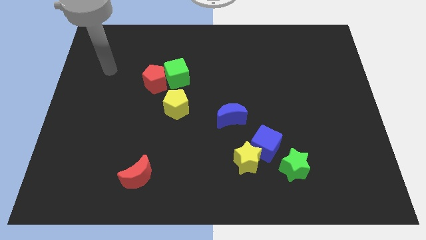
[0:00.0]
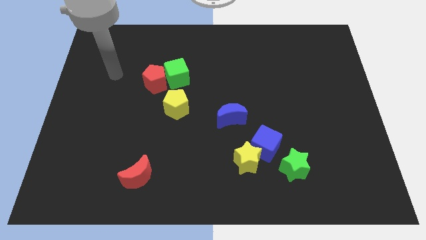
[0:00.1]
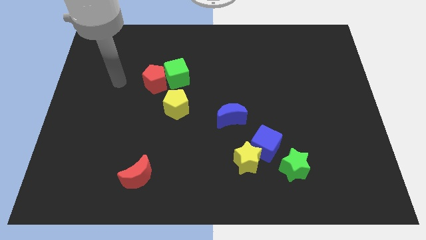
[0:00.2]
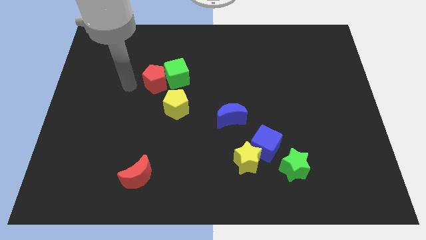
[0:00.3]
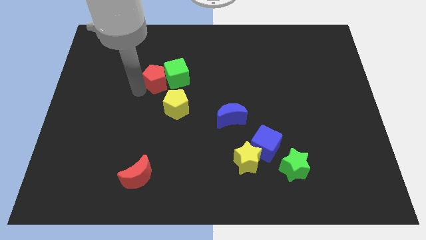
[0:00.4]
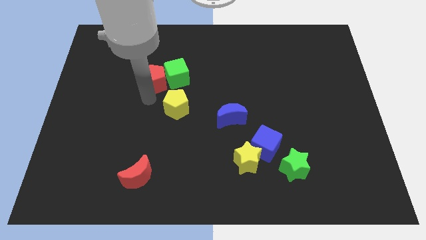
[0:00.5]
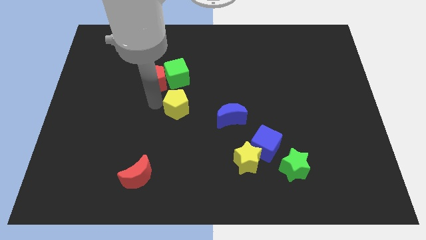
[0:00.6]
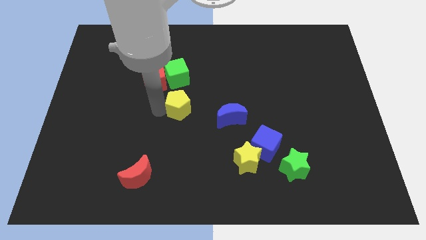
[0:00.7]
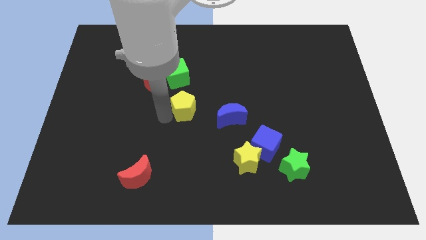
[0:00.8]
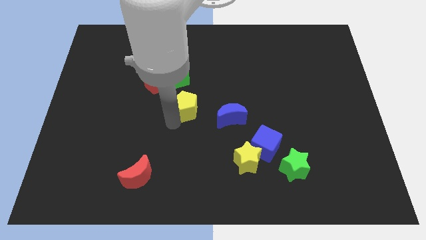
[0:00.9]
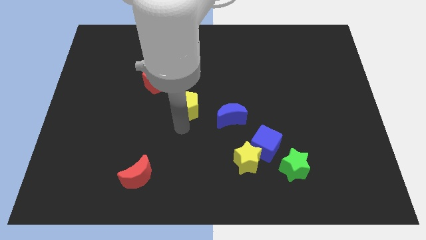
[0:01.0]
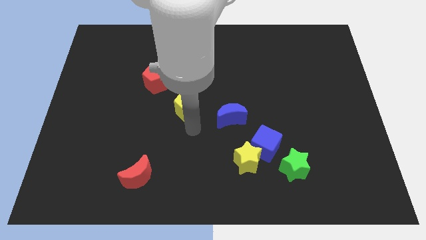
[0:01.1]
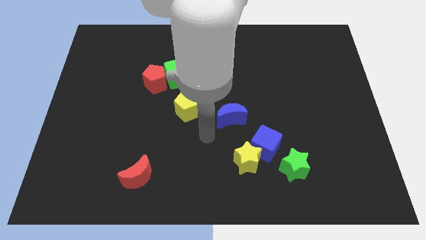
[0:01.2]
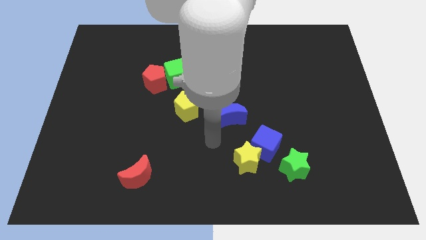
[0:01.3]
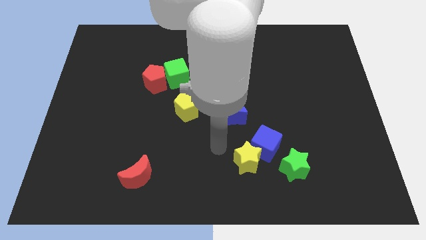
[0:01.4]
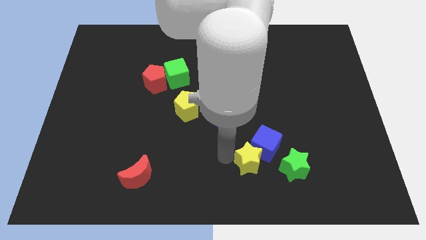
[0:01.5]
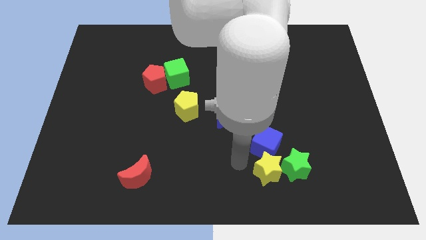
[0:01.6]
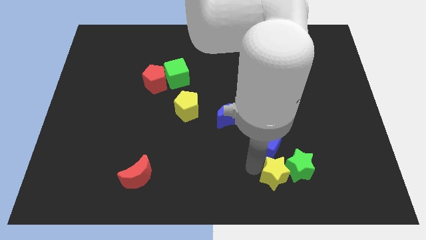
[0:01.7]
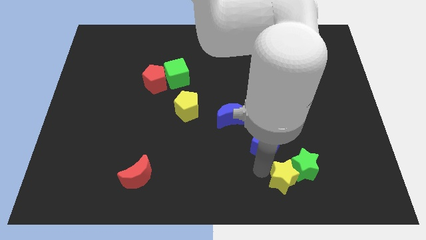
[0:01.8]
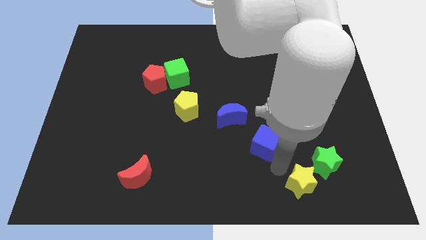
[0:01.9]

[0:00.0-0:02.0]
move the blue cube away from the yellow star and green star

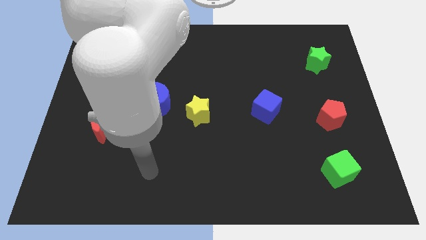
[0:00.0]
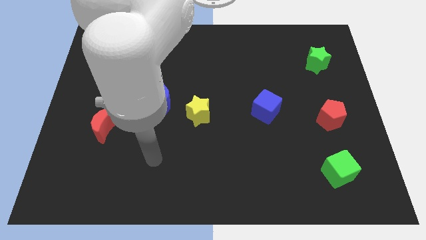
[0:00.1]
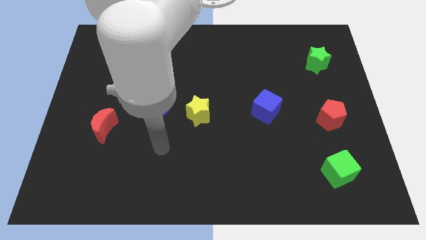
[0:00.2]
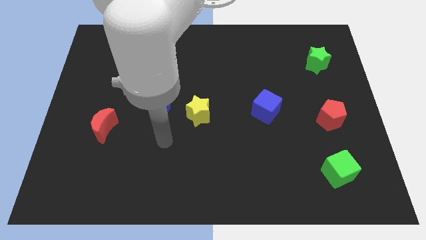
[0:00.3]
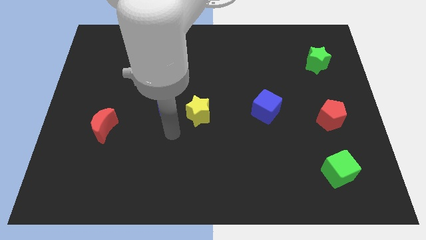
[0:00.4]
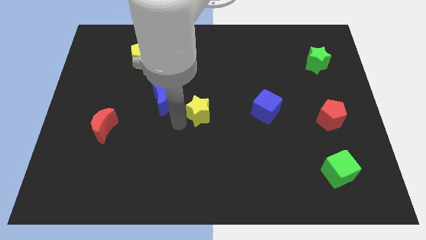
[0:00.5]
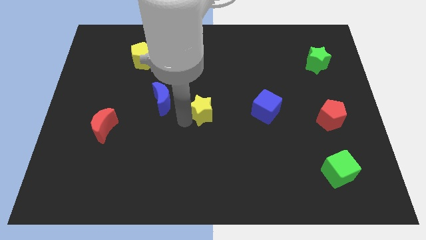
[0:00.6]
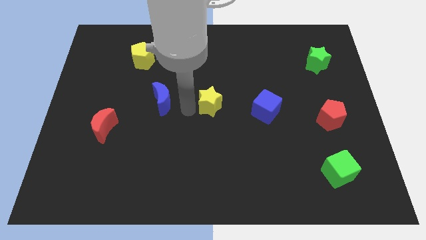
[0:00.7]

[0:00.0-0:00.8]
separate the blue moon from the yellow star

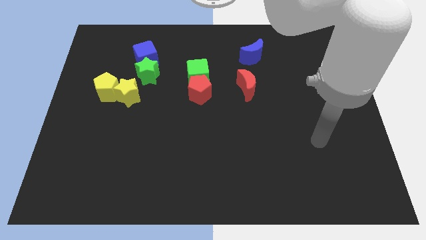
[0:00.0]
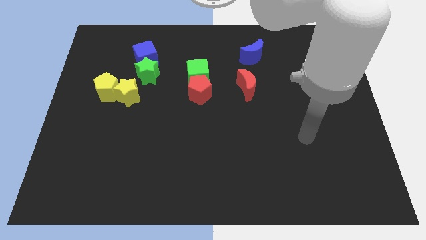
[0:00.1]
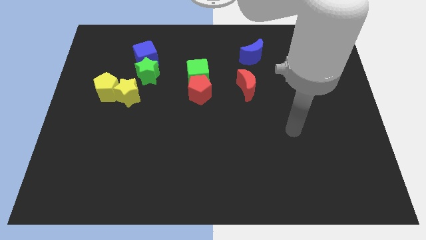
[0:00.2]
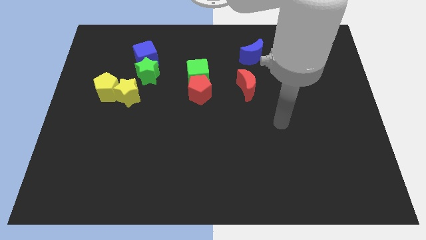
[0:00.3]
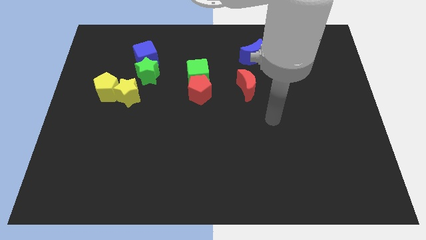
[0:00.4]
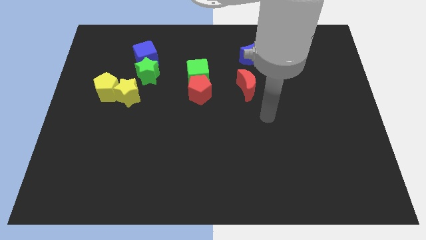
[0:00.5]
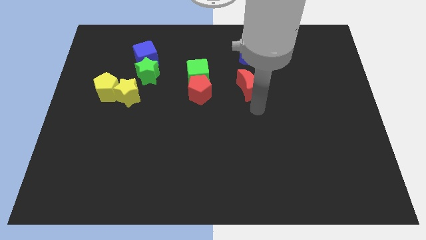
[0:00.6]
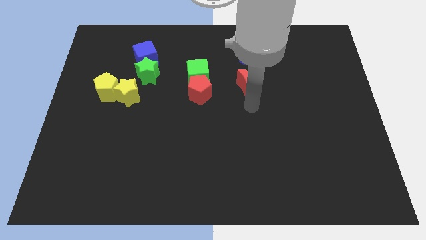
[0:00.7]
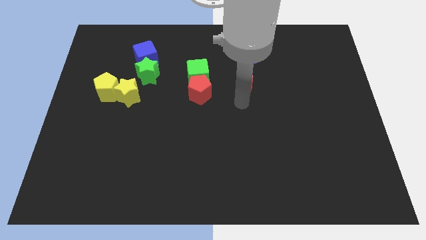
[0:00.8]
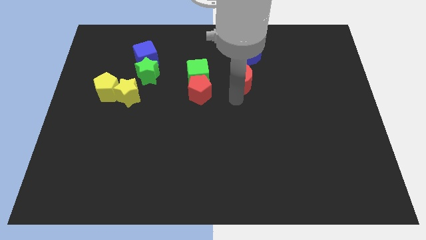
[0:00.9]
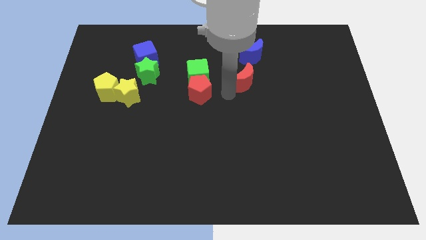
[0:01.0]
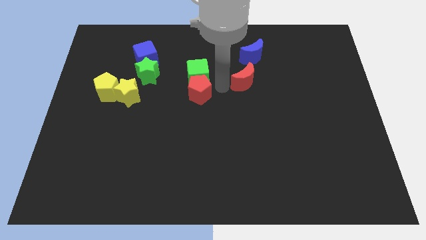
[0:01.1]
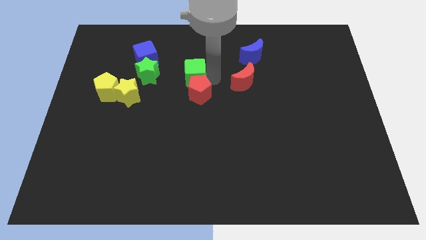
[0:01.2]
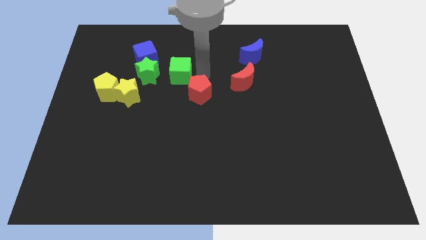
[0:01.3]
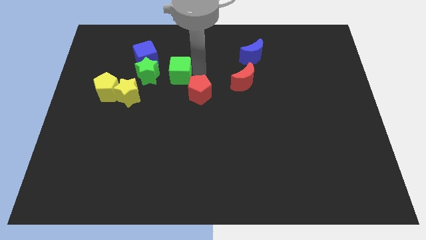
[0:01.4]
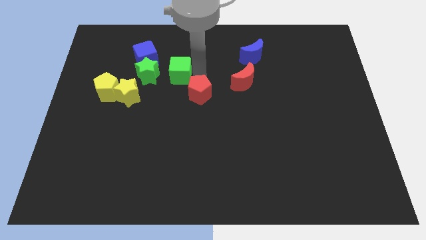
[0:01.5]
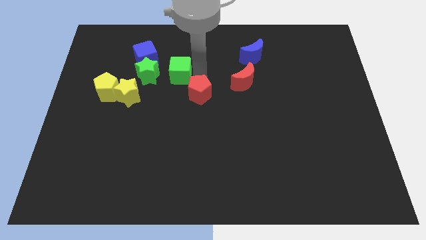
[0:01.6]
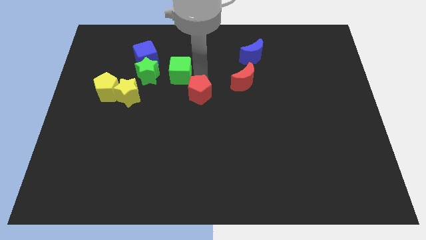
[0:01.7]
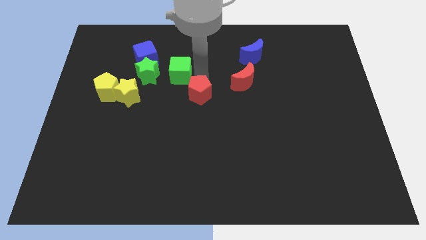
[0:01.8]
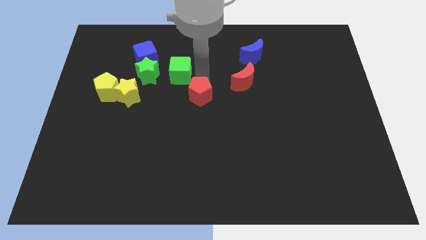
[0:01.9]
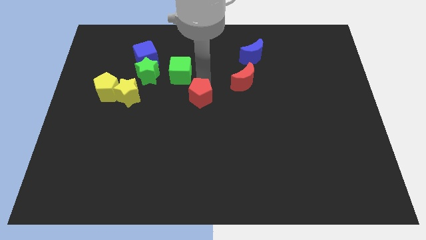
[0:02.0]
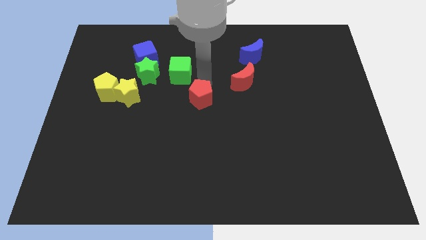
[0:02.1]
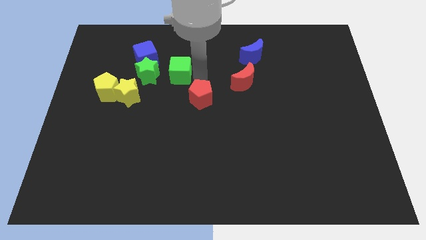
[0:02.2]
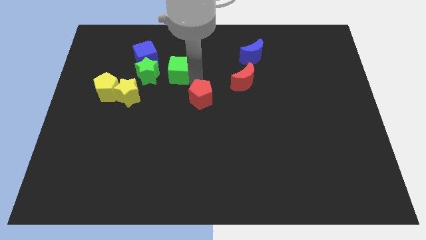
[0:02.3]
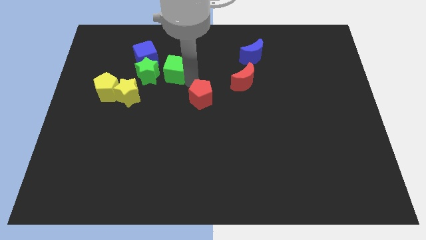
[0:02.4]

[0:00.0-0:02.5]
move the red pentagon away from the green cube

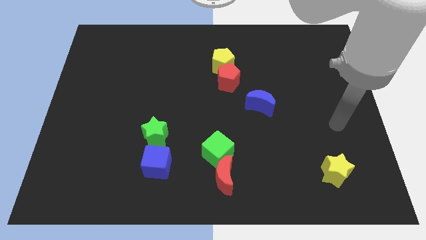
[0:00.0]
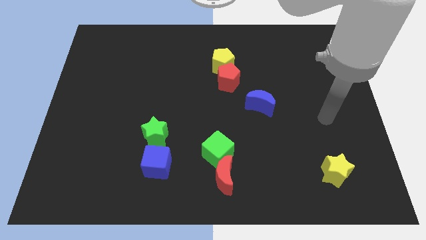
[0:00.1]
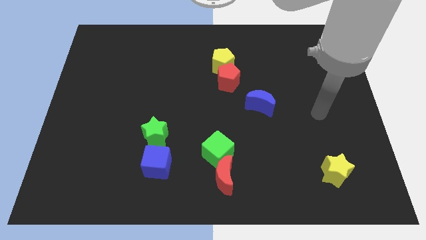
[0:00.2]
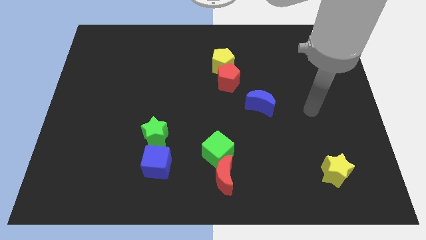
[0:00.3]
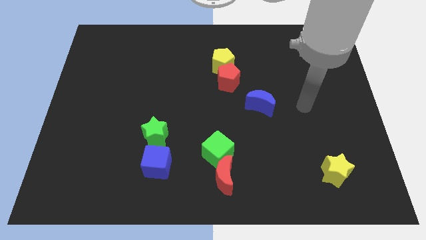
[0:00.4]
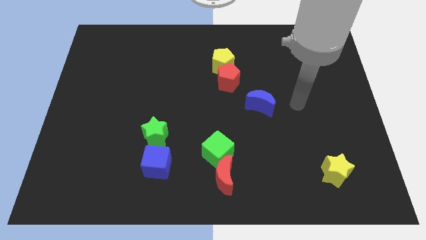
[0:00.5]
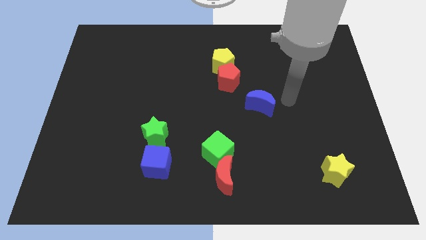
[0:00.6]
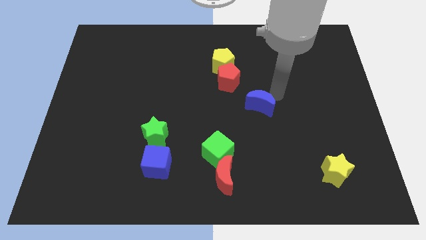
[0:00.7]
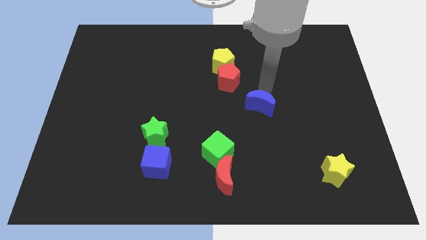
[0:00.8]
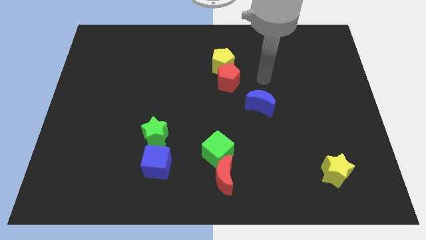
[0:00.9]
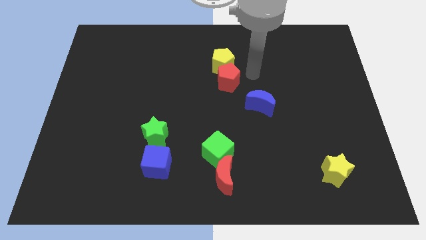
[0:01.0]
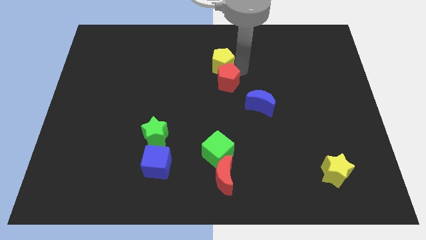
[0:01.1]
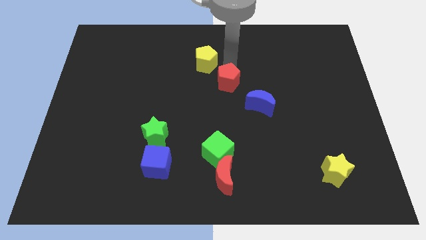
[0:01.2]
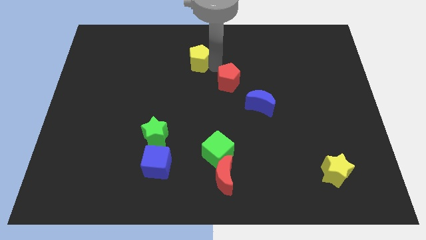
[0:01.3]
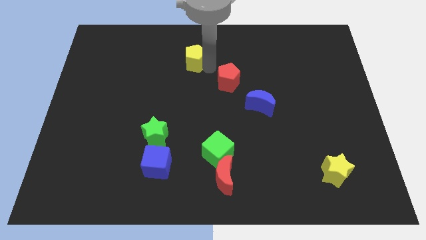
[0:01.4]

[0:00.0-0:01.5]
move the red pentagon away from the yellow pentagon

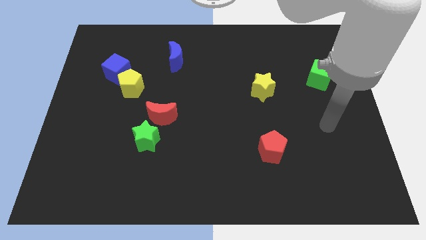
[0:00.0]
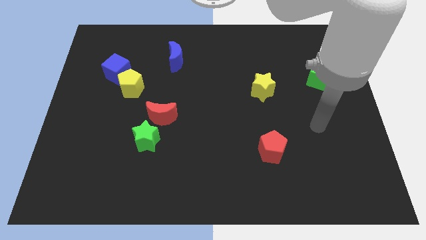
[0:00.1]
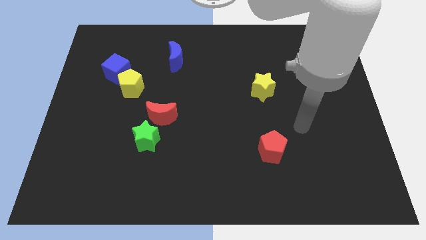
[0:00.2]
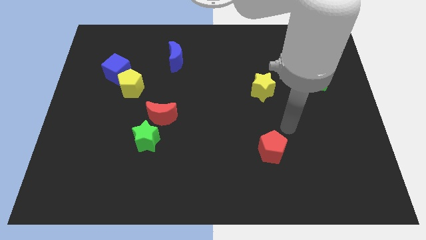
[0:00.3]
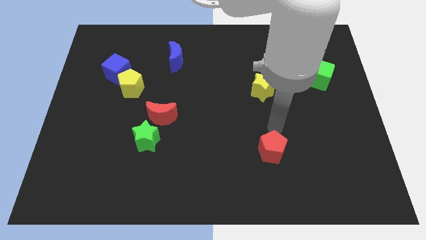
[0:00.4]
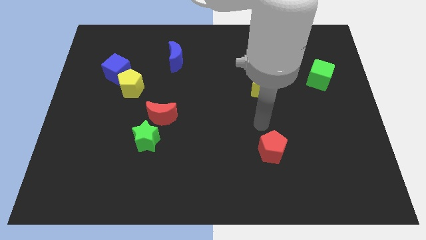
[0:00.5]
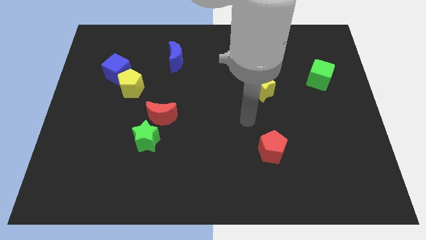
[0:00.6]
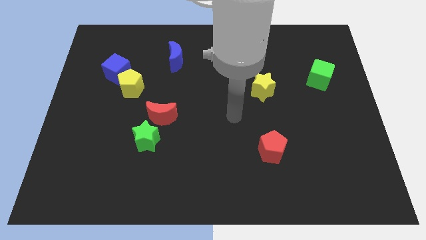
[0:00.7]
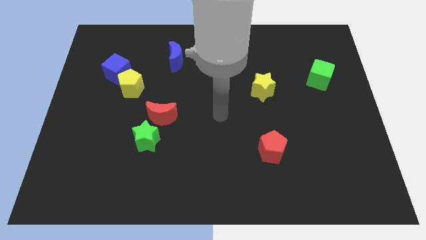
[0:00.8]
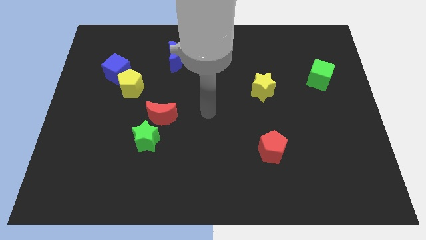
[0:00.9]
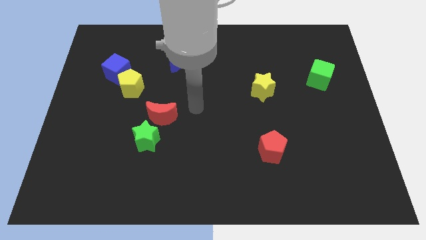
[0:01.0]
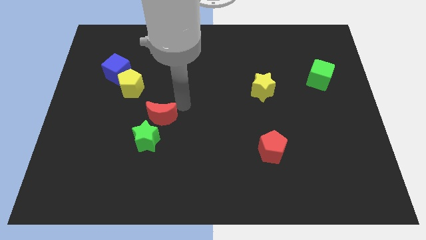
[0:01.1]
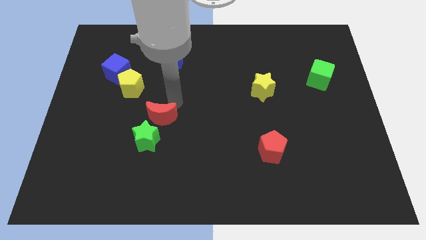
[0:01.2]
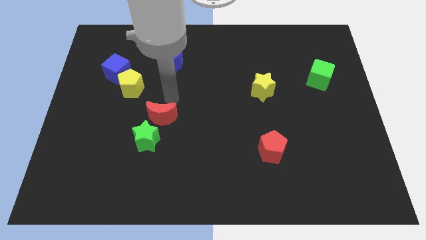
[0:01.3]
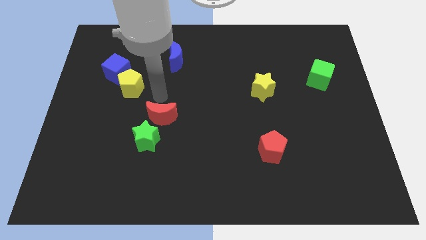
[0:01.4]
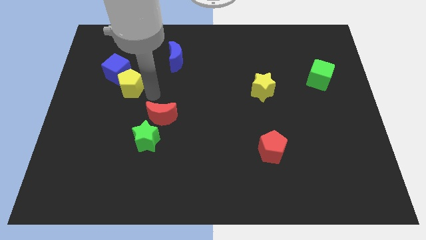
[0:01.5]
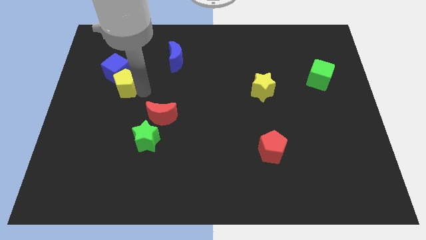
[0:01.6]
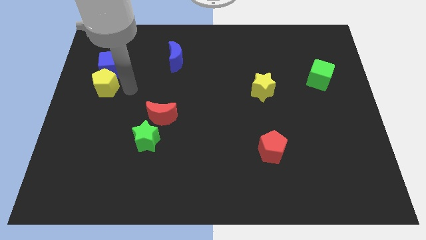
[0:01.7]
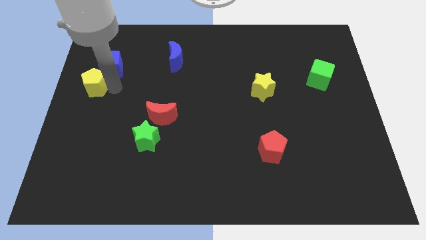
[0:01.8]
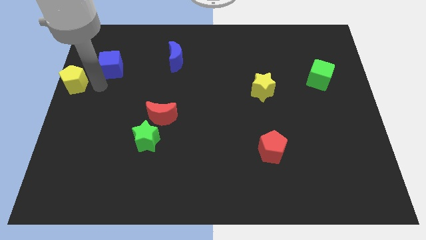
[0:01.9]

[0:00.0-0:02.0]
pull the blue cube apart from the yellow pentagon

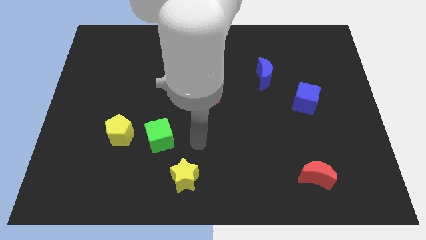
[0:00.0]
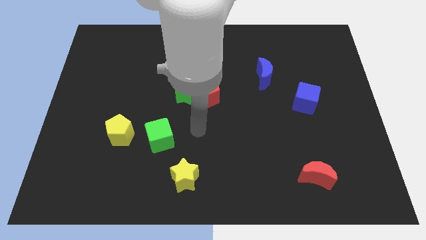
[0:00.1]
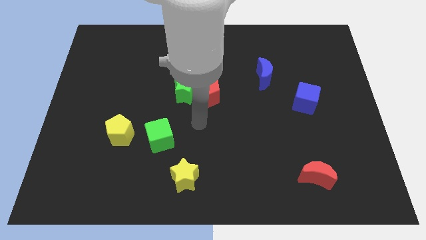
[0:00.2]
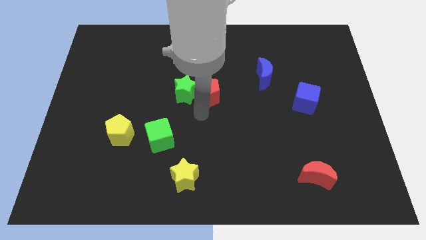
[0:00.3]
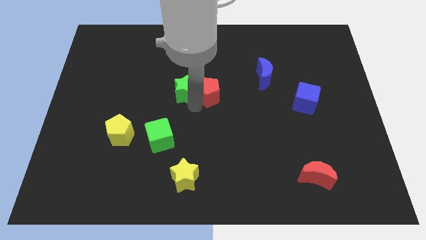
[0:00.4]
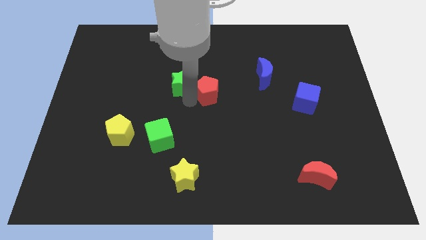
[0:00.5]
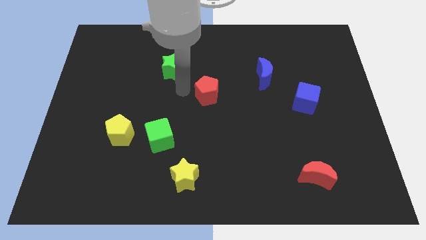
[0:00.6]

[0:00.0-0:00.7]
move the red pentagon away from the green star
